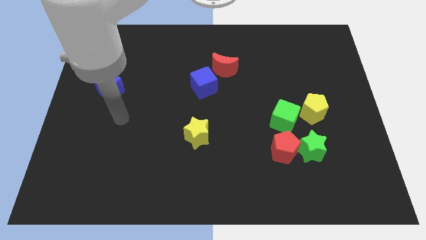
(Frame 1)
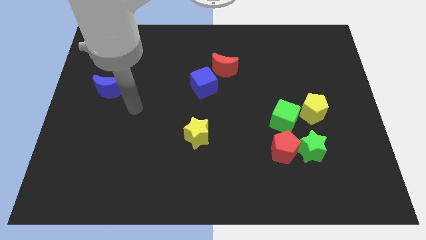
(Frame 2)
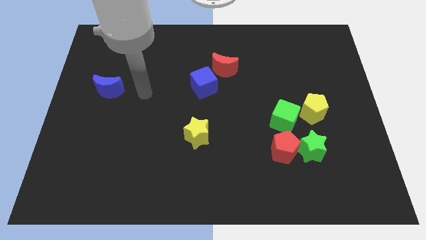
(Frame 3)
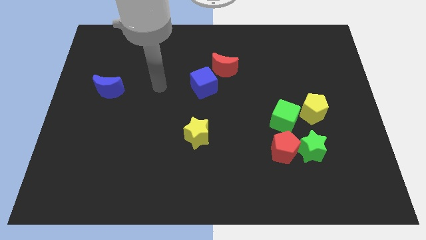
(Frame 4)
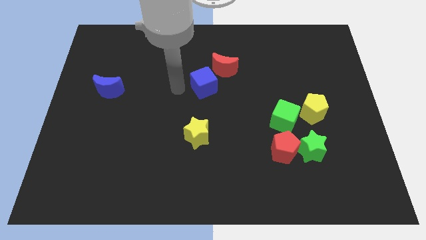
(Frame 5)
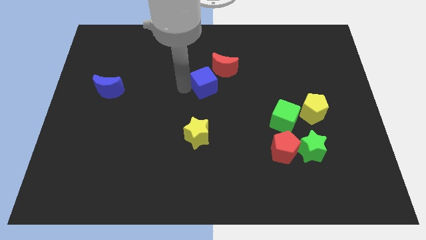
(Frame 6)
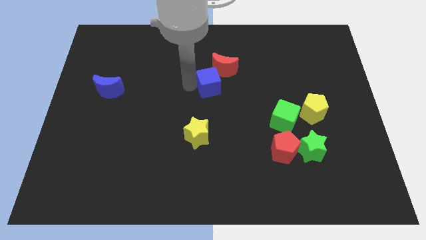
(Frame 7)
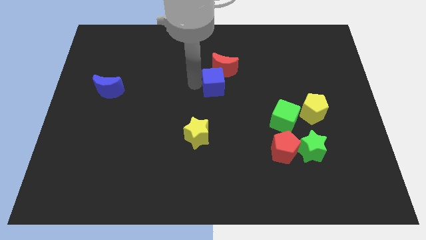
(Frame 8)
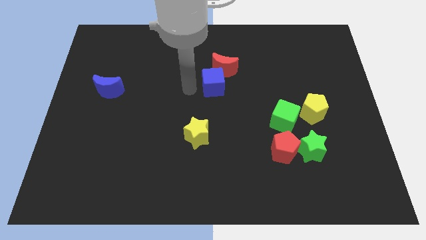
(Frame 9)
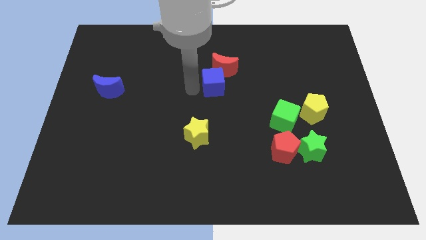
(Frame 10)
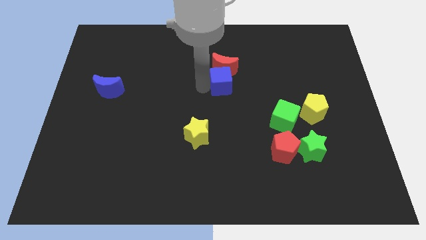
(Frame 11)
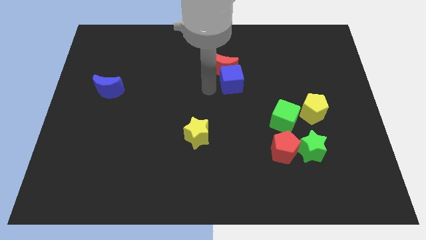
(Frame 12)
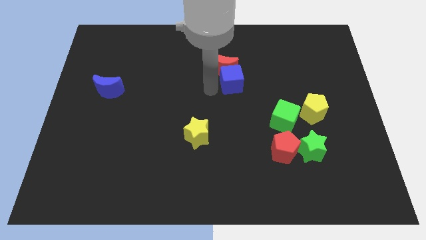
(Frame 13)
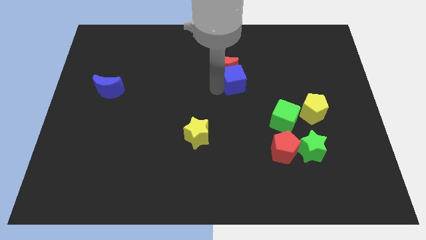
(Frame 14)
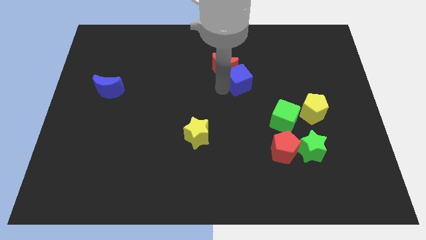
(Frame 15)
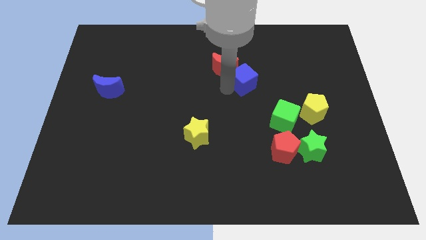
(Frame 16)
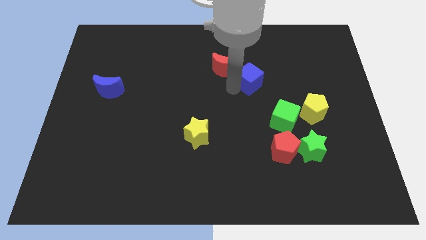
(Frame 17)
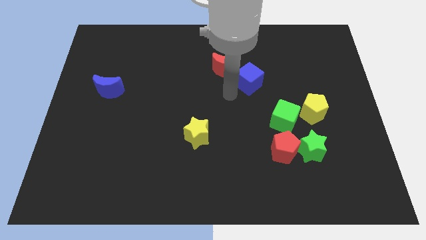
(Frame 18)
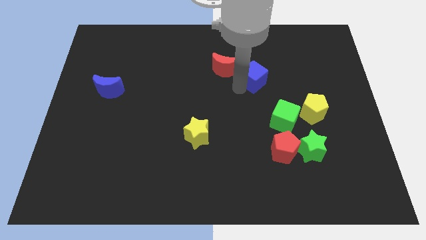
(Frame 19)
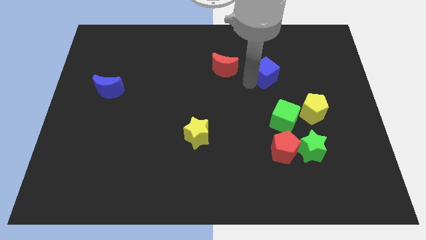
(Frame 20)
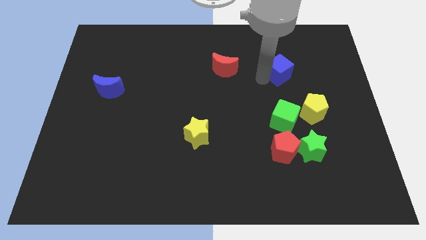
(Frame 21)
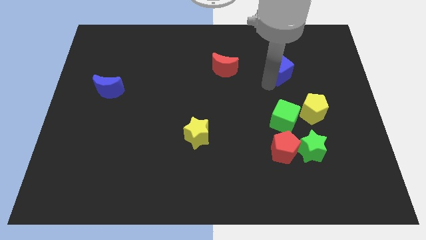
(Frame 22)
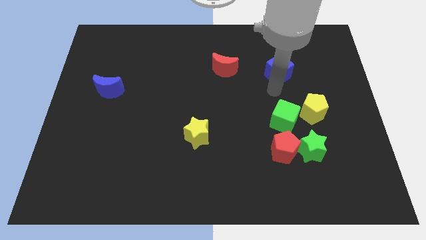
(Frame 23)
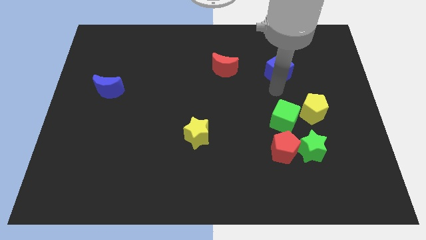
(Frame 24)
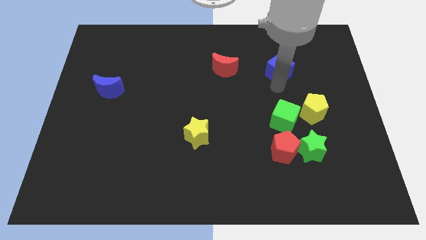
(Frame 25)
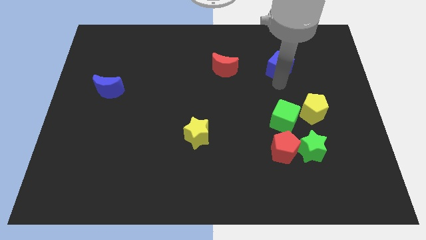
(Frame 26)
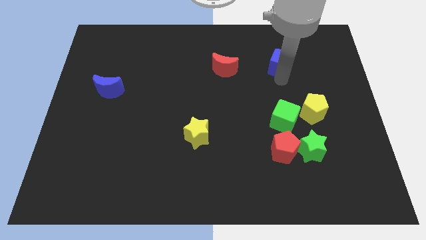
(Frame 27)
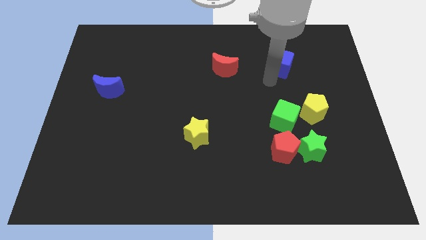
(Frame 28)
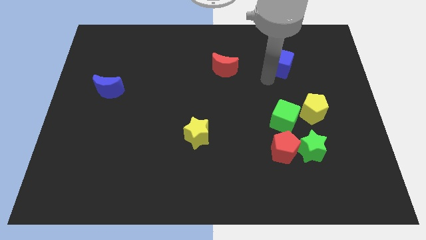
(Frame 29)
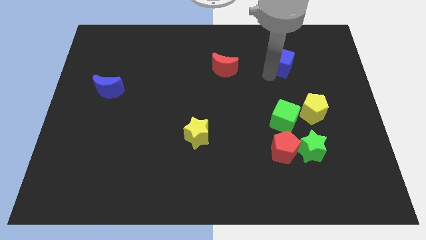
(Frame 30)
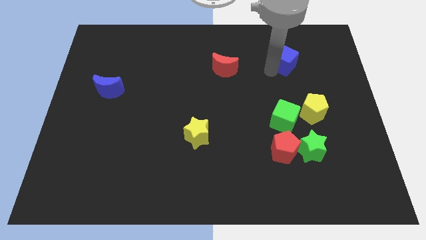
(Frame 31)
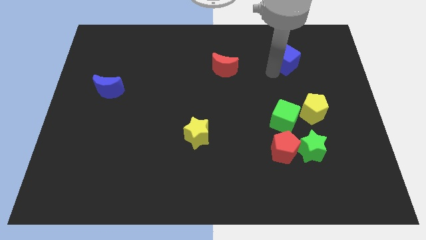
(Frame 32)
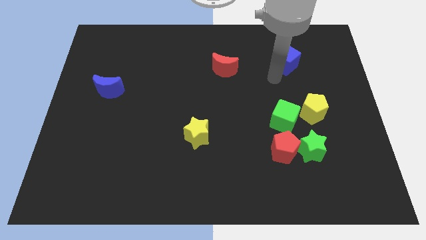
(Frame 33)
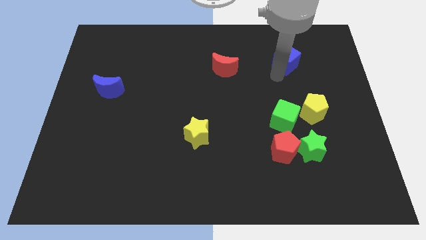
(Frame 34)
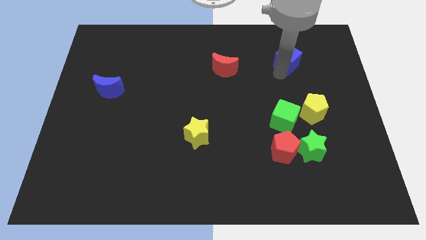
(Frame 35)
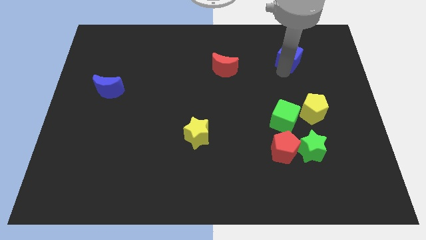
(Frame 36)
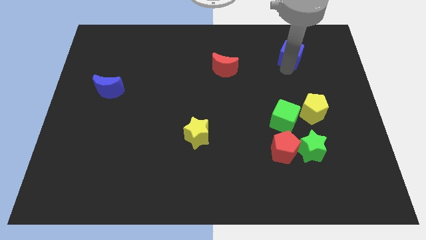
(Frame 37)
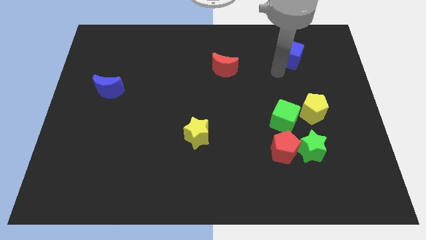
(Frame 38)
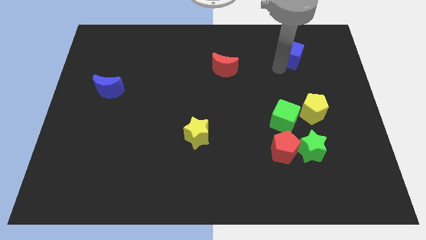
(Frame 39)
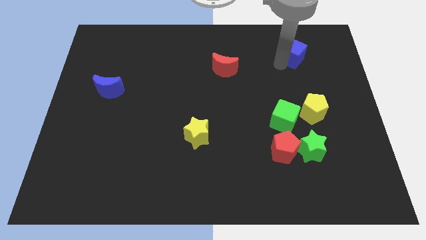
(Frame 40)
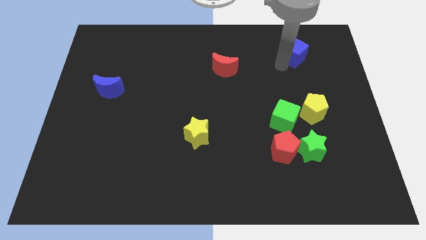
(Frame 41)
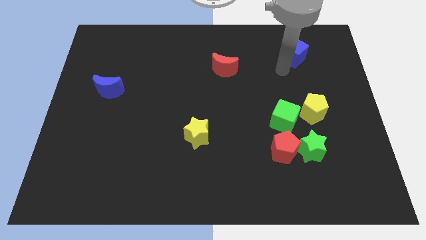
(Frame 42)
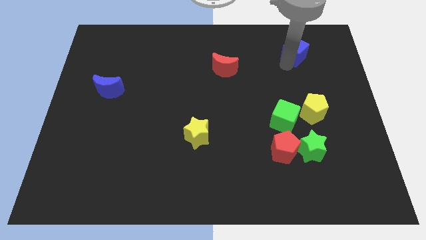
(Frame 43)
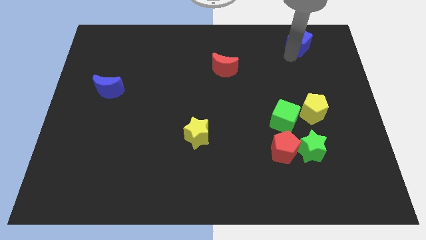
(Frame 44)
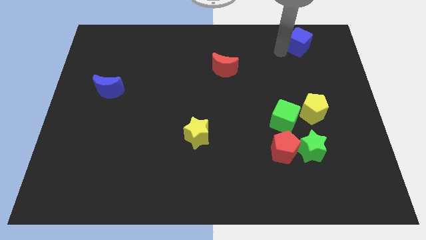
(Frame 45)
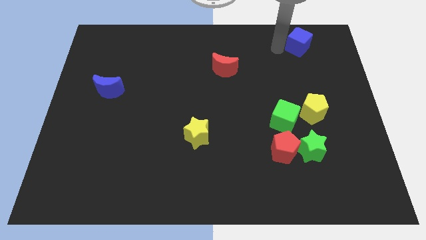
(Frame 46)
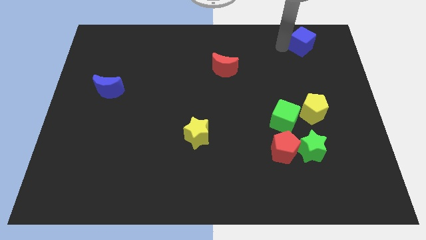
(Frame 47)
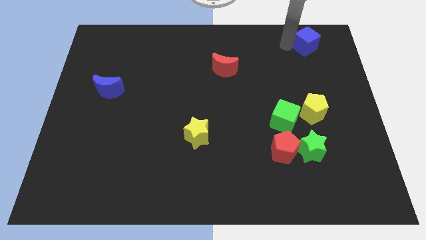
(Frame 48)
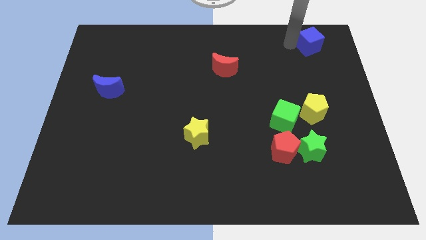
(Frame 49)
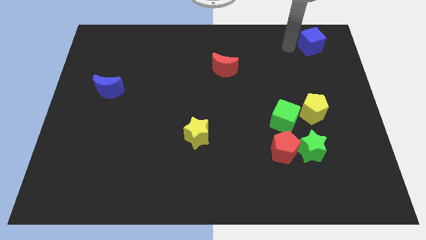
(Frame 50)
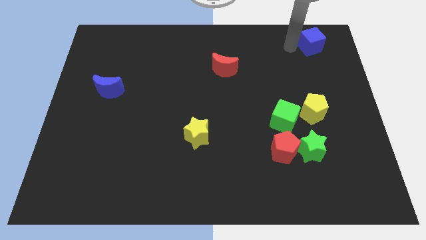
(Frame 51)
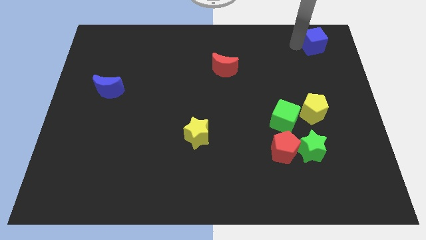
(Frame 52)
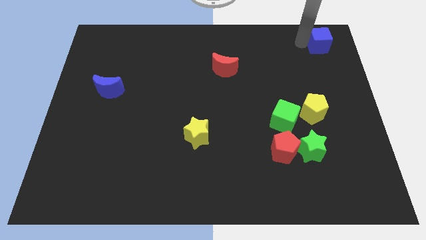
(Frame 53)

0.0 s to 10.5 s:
slide the blue cube to the top right of the board
